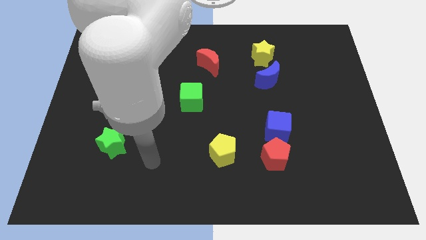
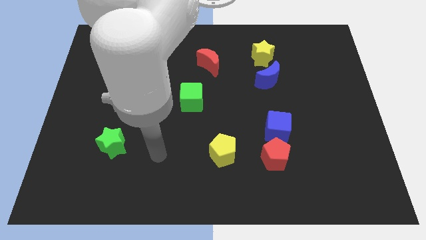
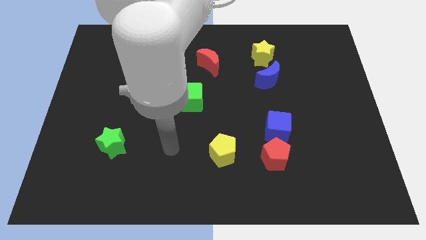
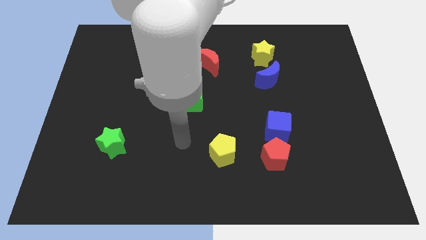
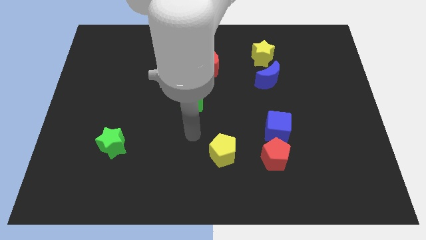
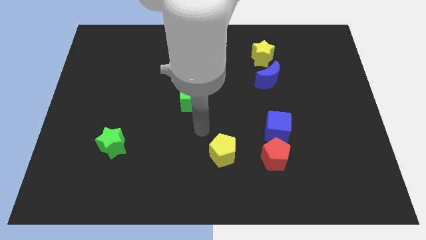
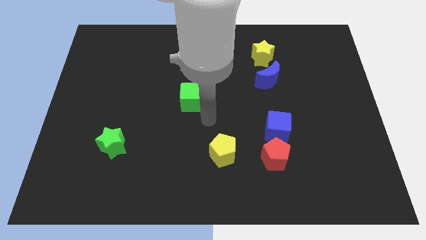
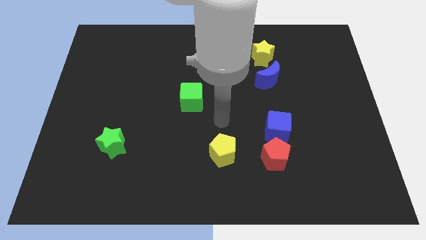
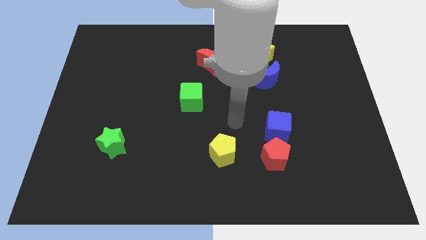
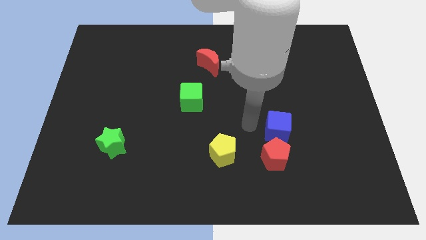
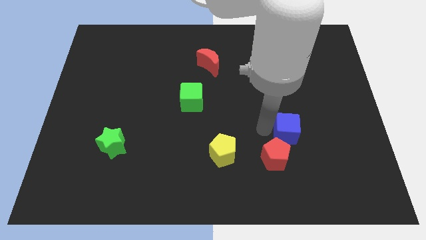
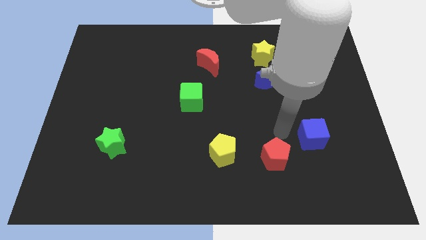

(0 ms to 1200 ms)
separate the red pentagon from the blue cube

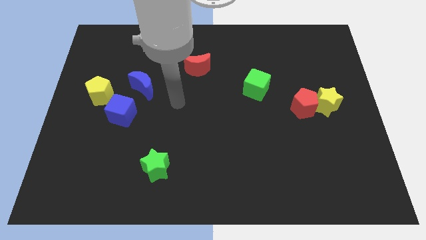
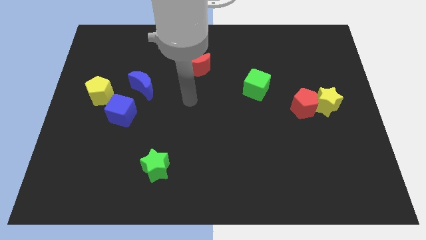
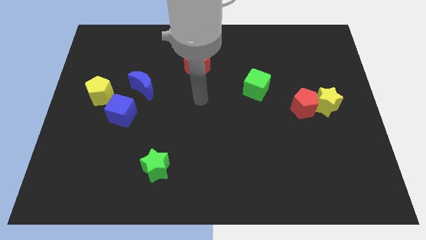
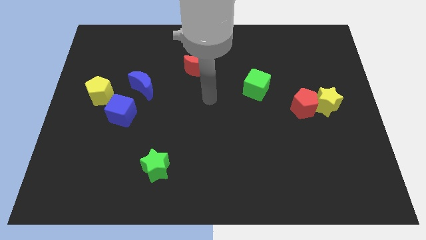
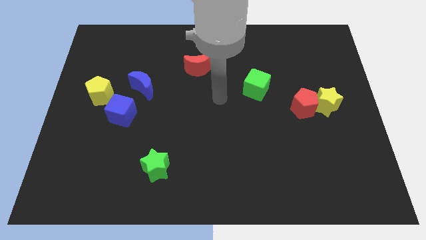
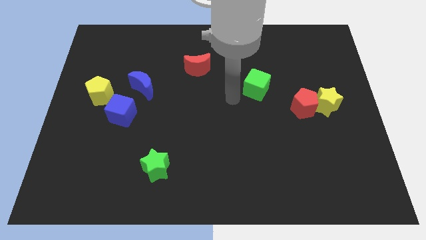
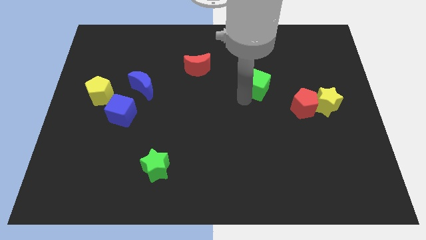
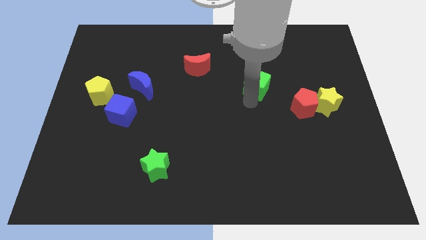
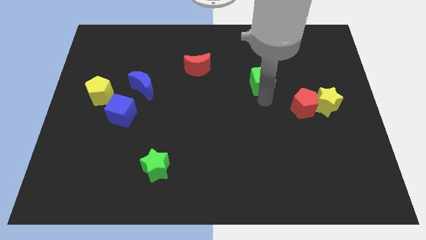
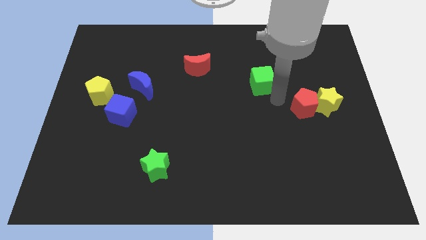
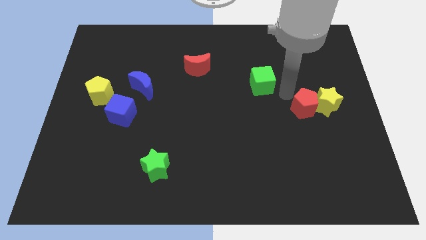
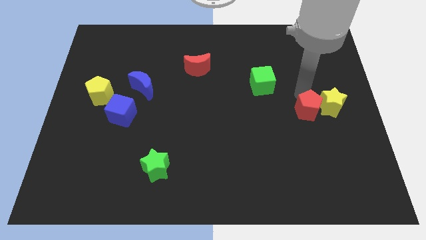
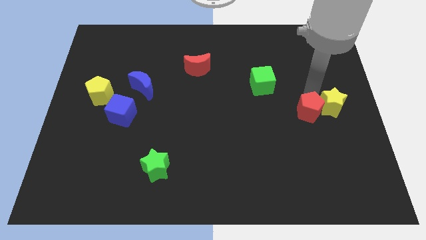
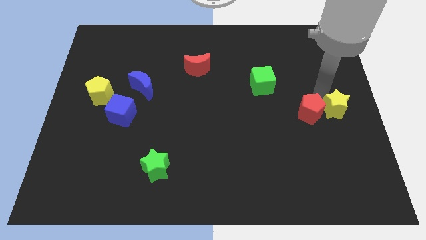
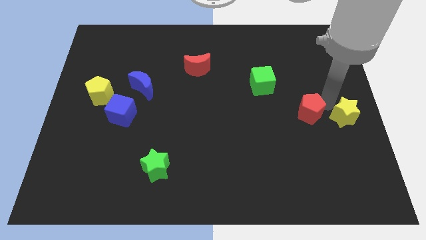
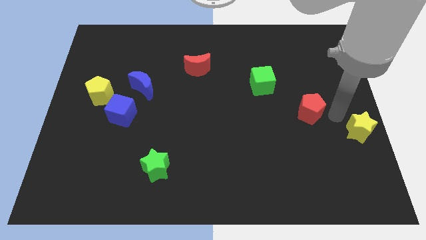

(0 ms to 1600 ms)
move the red pentagon away from the yellow star

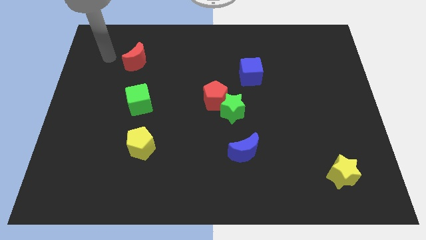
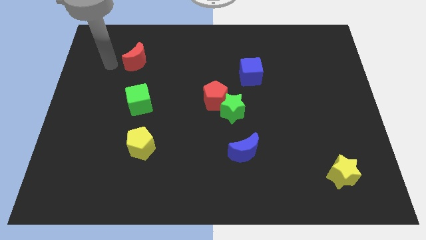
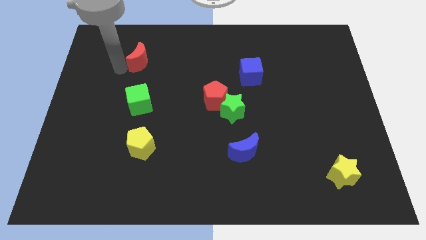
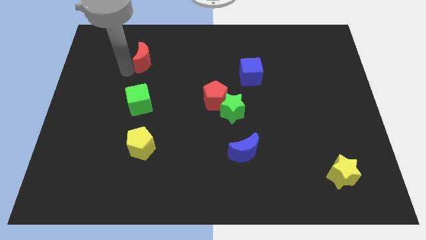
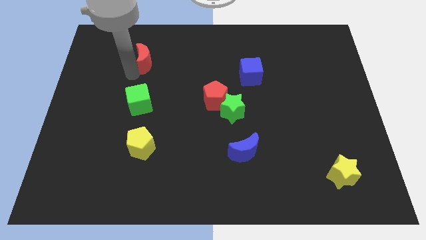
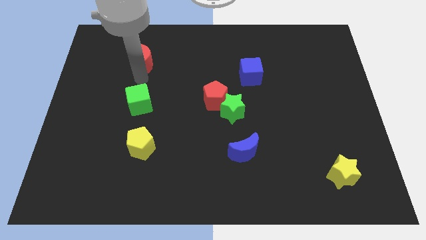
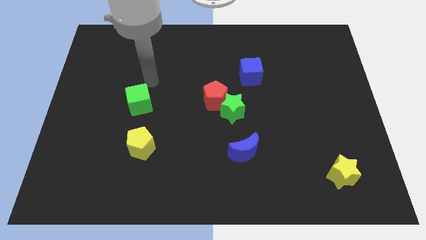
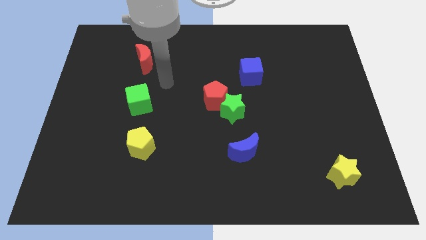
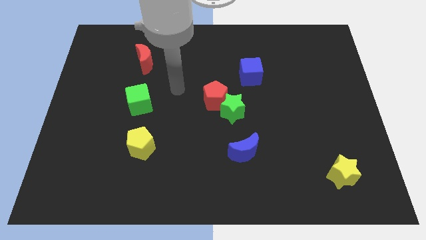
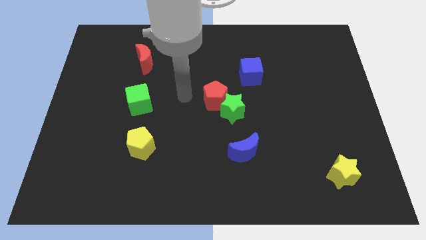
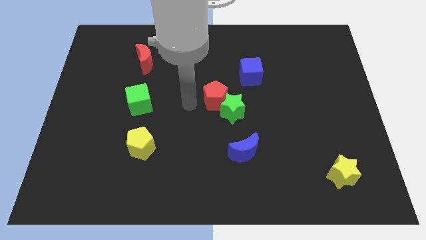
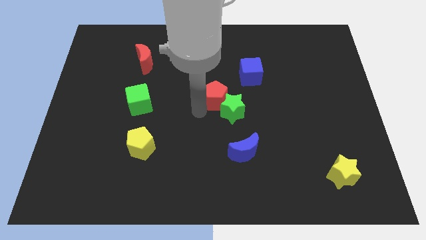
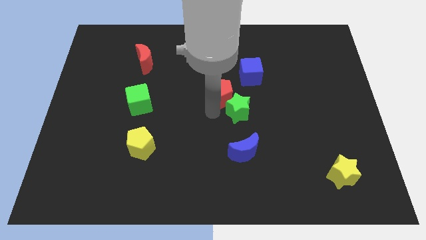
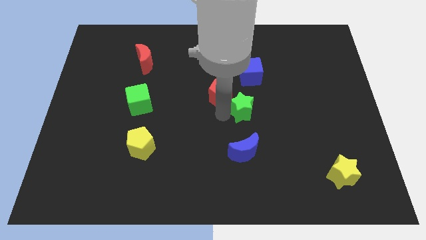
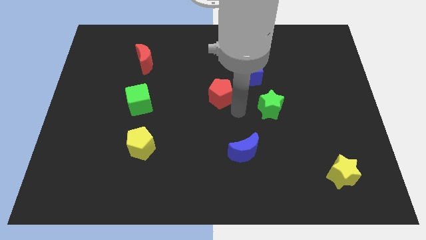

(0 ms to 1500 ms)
separate the red pentagon from the green star

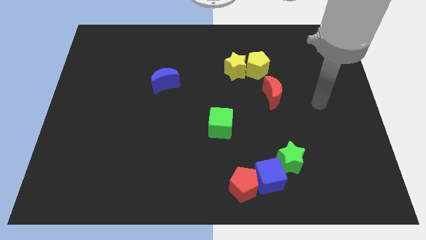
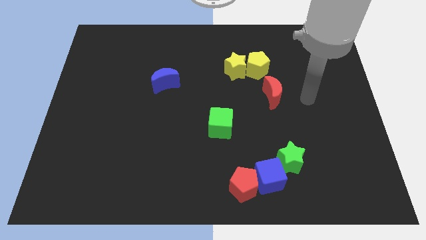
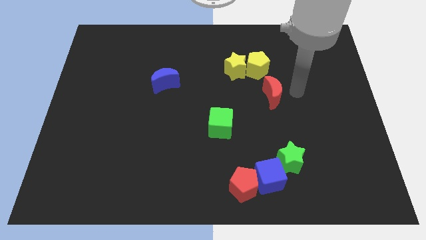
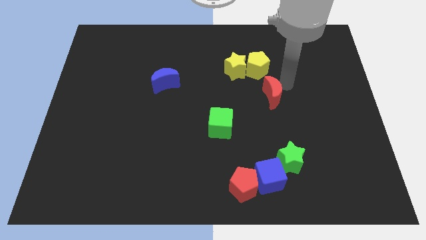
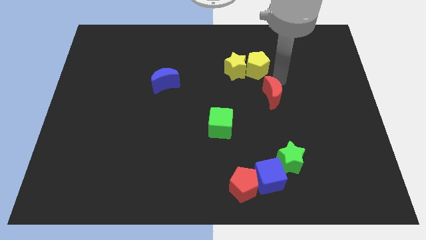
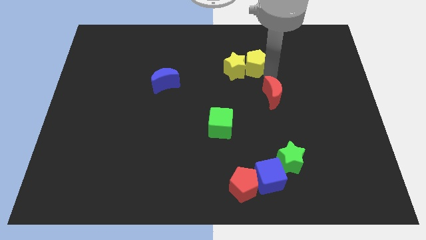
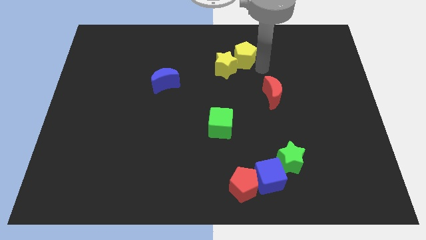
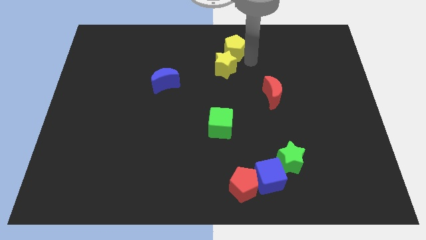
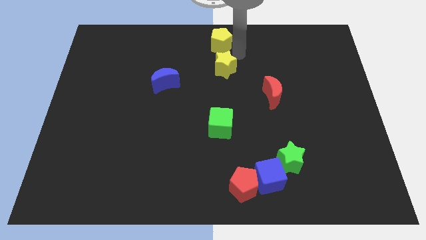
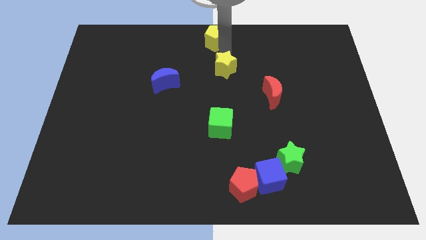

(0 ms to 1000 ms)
pull the yellow star apart from the yellow pentagon

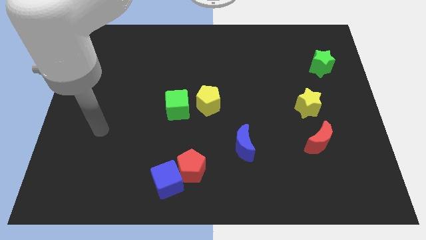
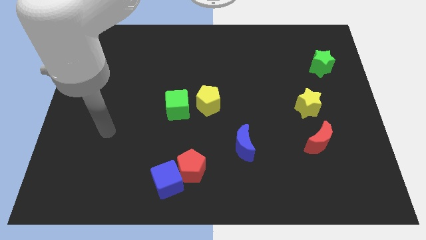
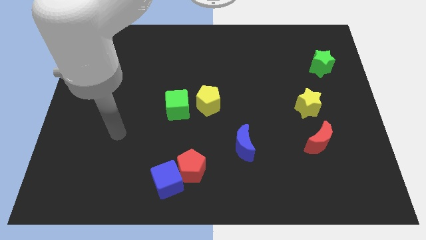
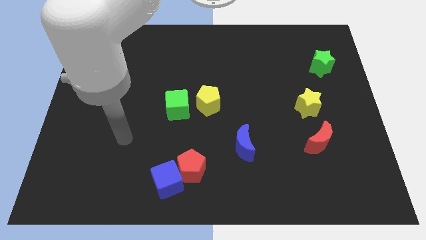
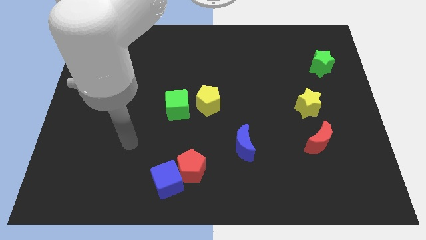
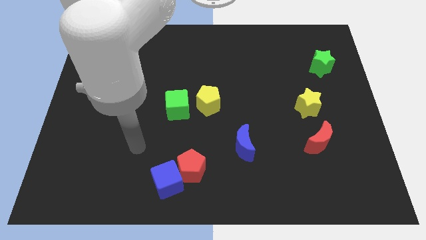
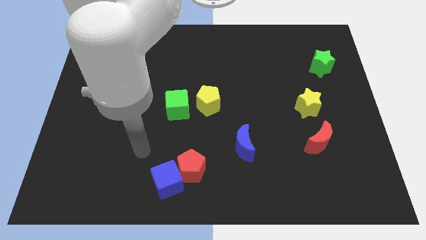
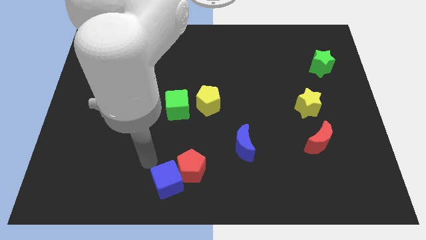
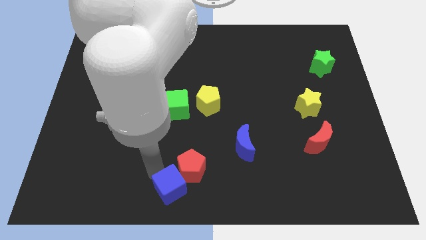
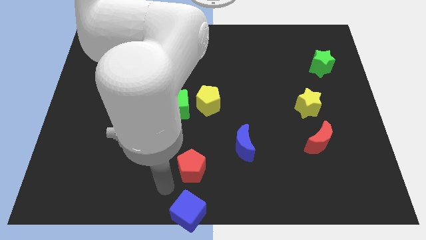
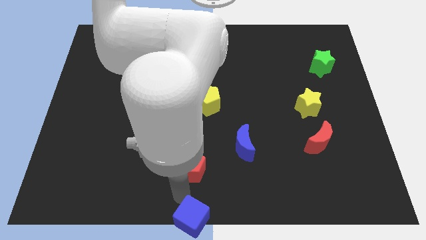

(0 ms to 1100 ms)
move the red pentagon away from the blue cube

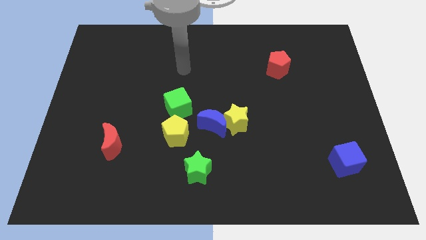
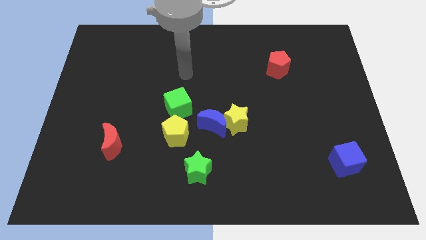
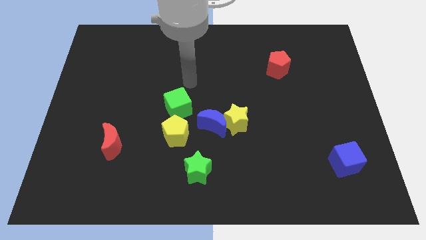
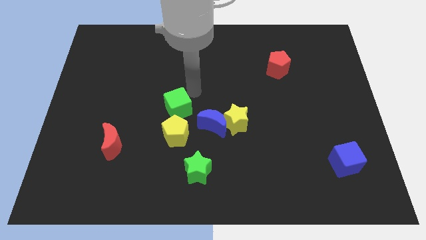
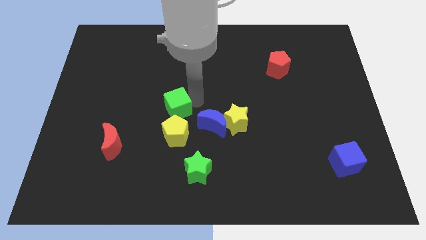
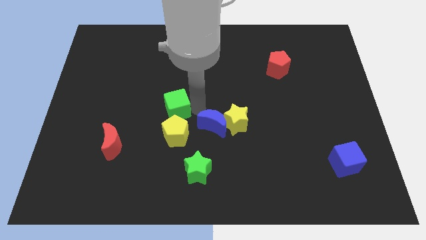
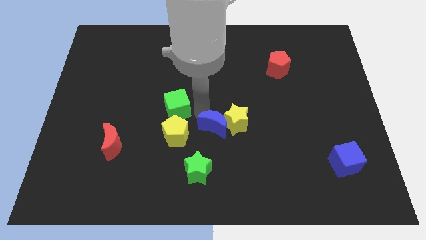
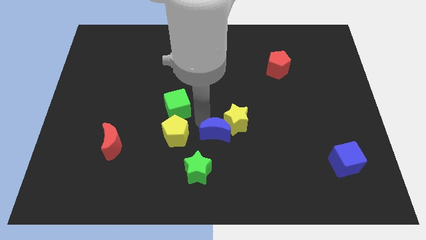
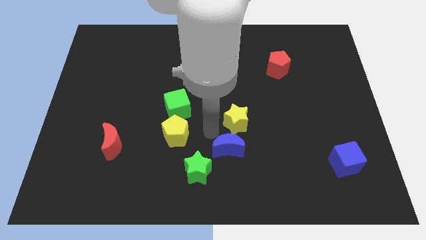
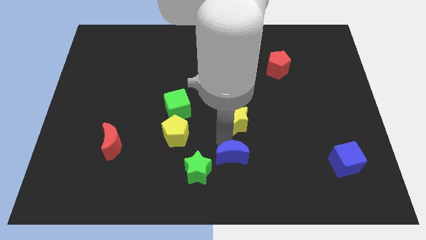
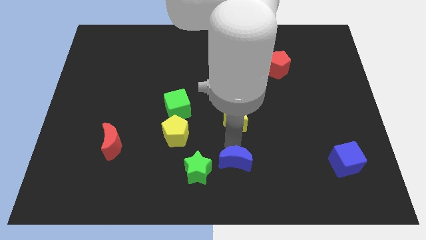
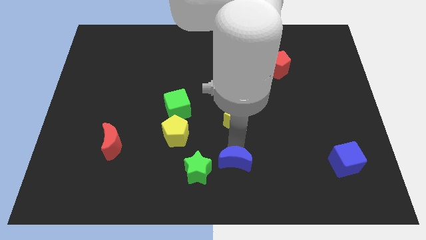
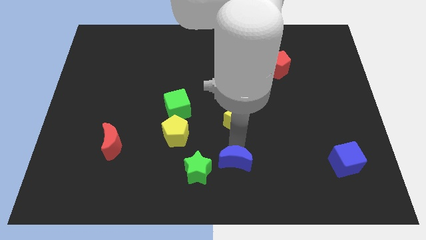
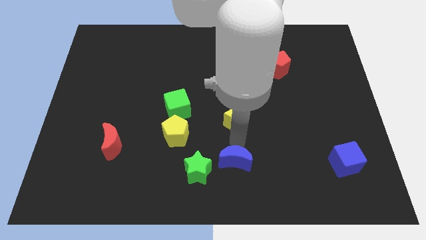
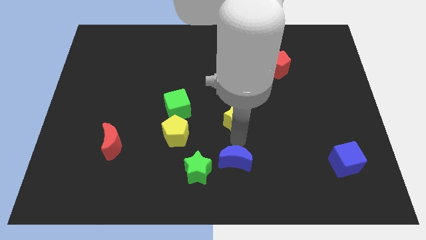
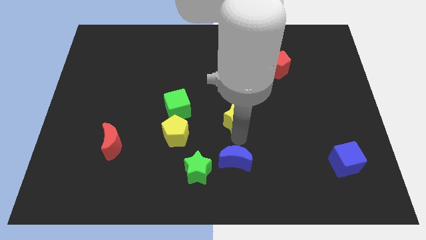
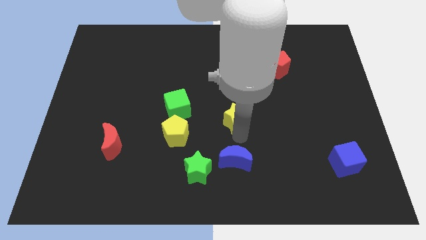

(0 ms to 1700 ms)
move the yellow star away from the blue moon

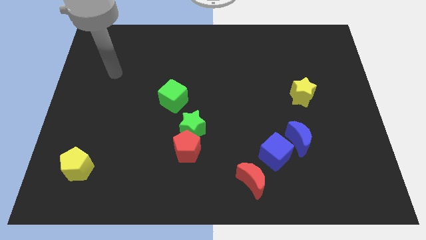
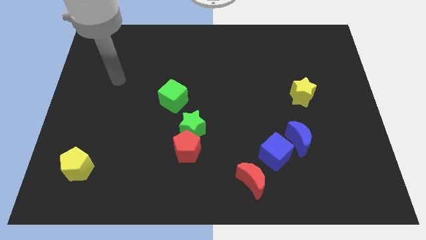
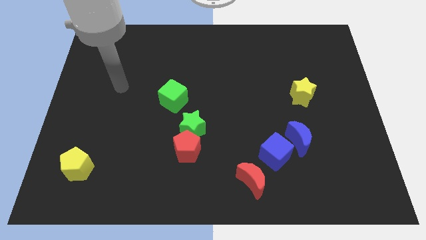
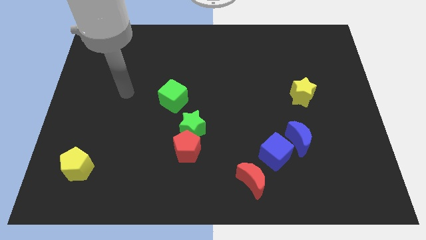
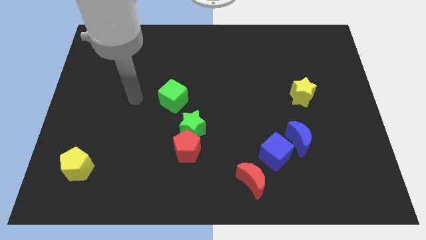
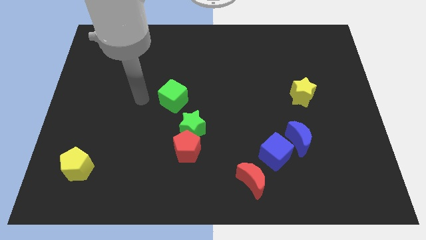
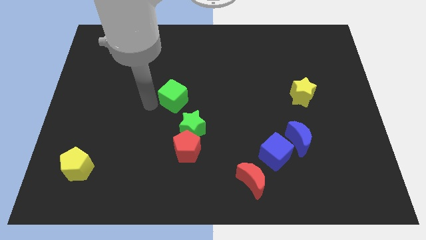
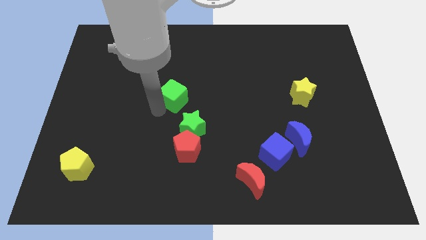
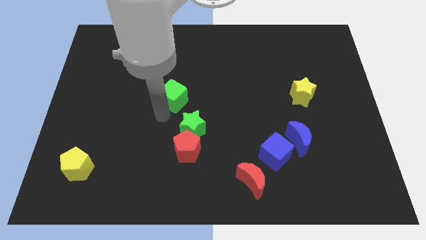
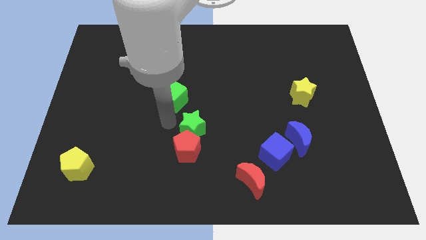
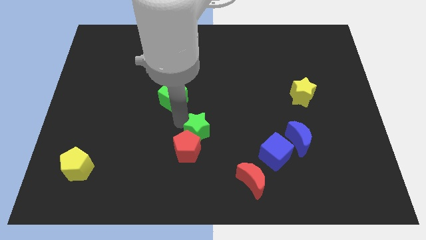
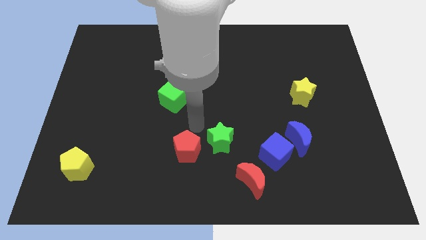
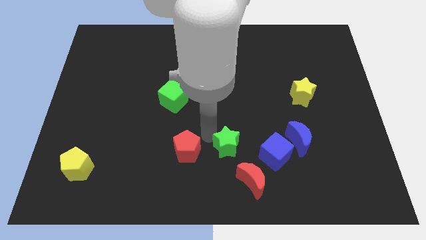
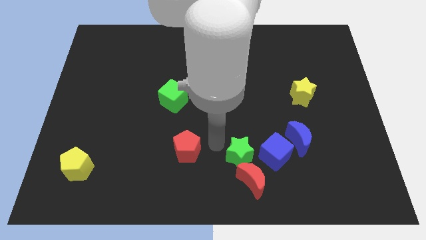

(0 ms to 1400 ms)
move the red pentagon away from the green star

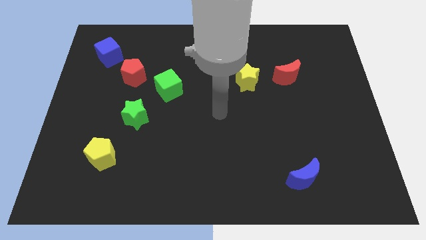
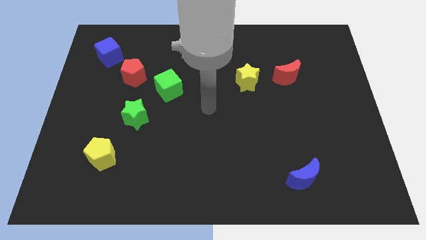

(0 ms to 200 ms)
separate the red pentagon from the green cube
